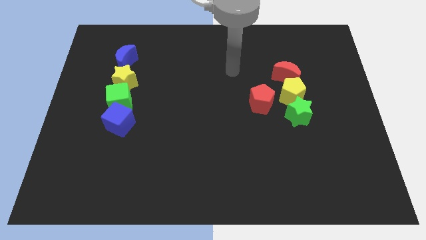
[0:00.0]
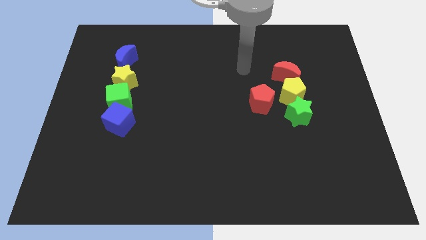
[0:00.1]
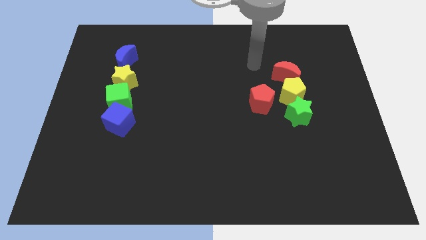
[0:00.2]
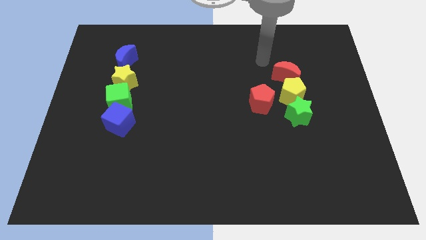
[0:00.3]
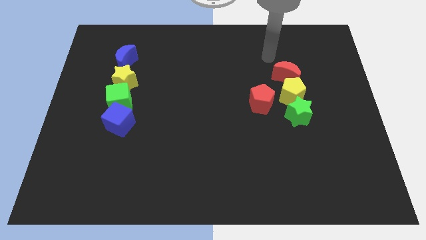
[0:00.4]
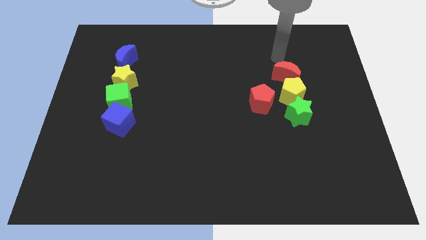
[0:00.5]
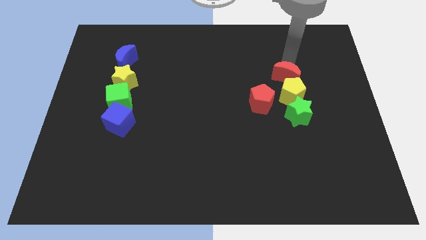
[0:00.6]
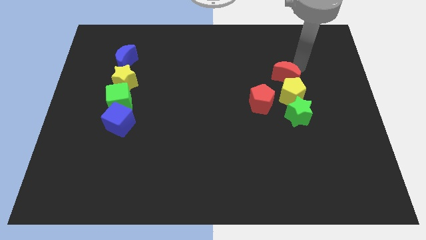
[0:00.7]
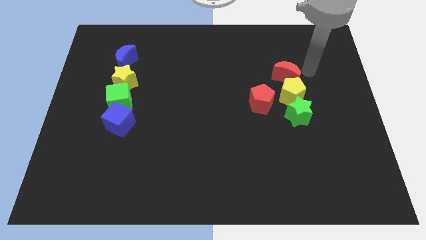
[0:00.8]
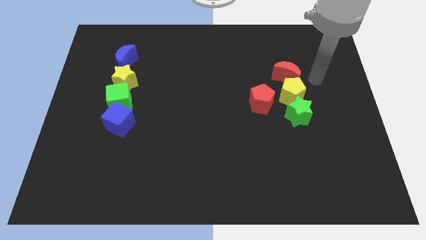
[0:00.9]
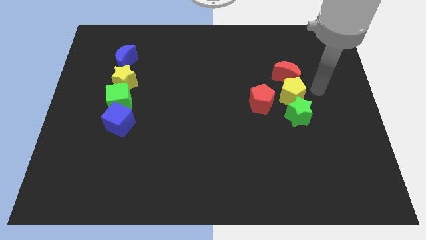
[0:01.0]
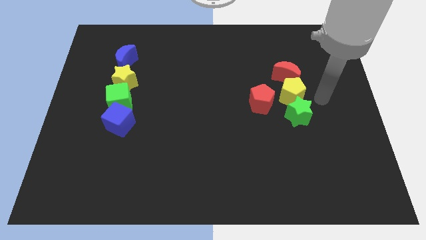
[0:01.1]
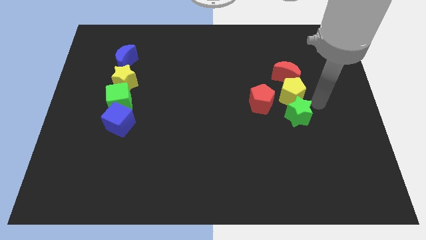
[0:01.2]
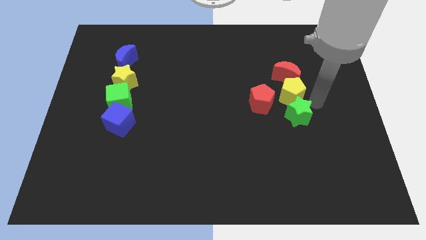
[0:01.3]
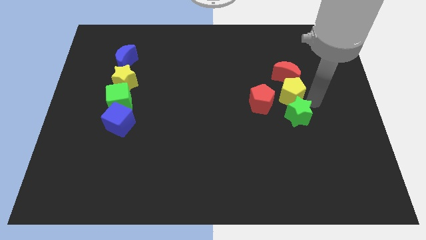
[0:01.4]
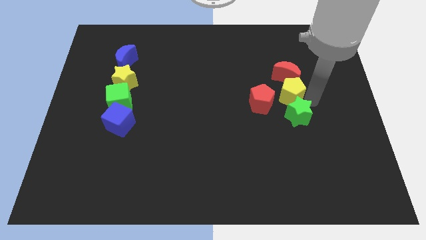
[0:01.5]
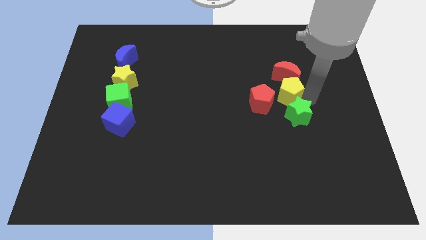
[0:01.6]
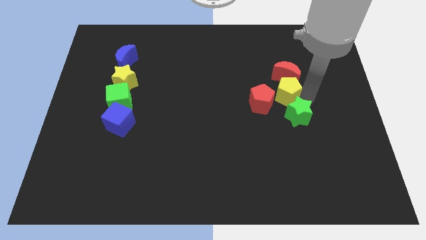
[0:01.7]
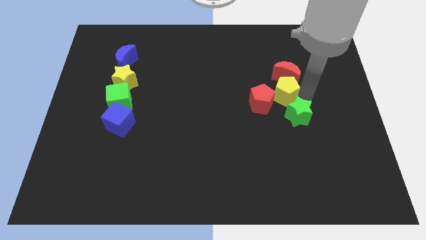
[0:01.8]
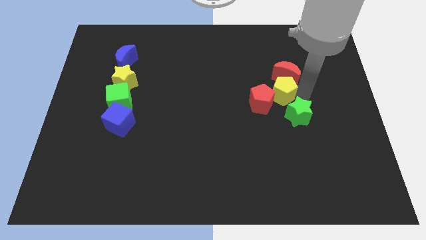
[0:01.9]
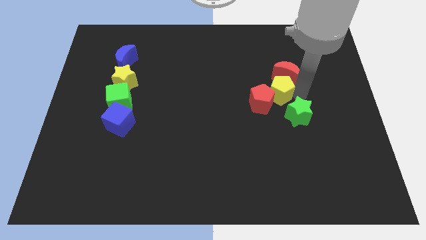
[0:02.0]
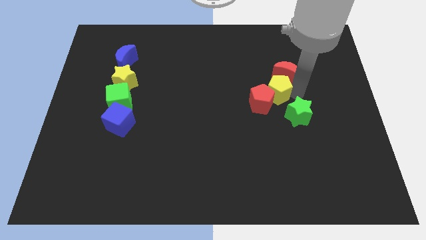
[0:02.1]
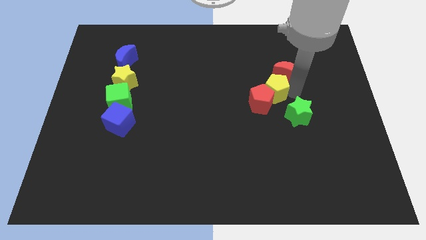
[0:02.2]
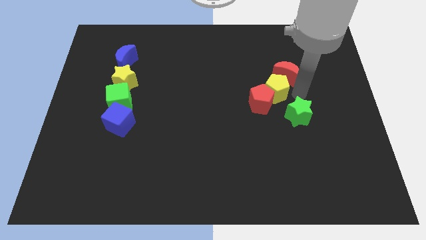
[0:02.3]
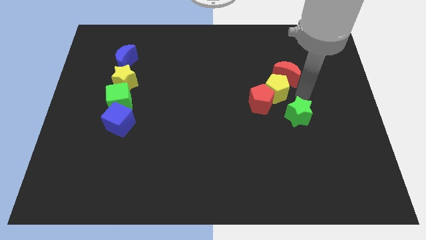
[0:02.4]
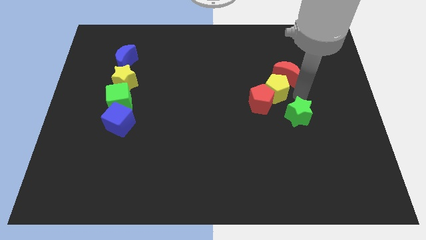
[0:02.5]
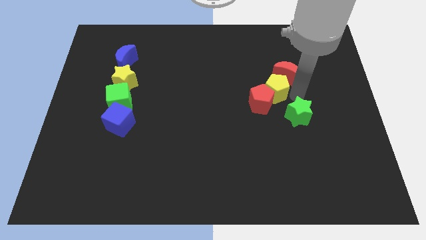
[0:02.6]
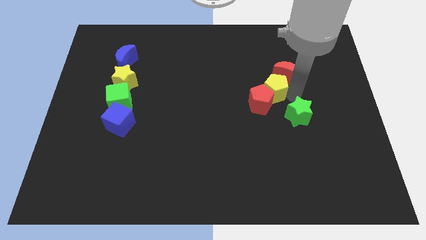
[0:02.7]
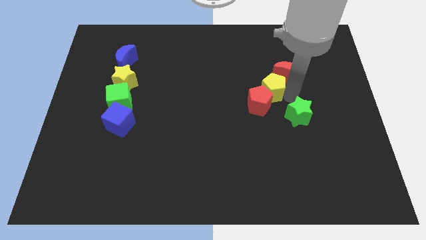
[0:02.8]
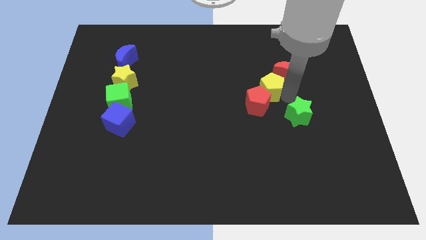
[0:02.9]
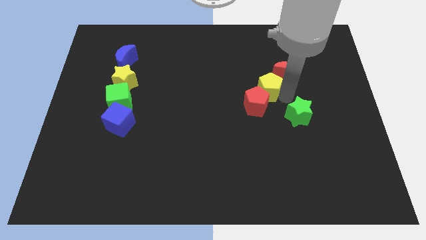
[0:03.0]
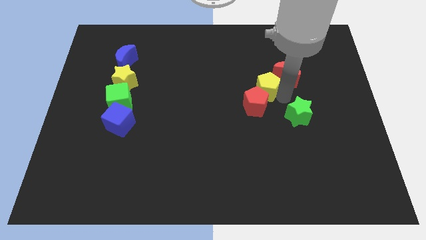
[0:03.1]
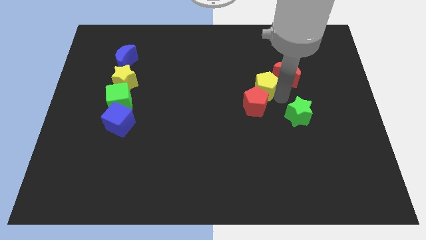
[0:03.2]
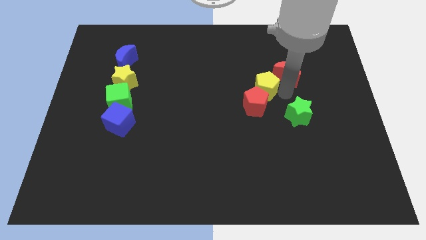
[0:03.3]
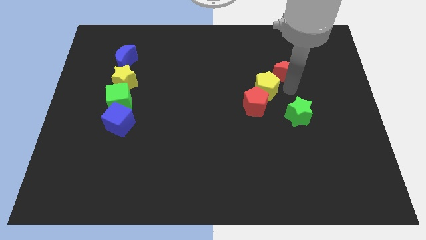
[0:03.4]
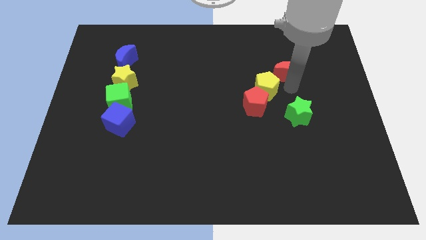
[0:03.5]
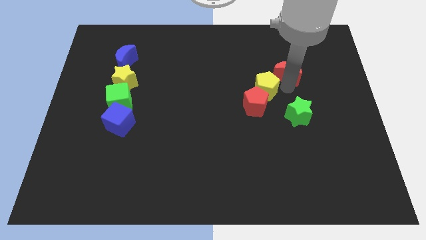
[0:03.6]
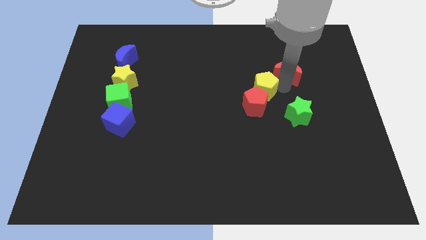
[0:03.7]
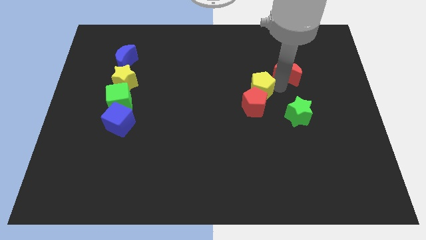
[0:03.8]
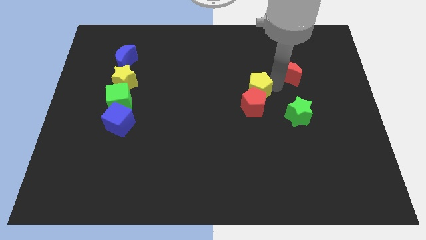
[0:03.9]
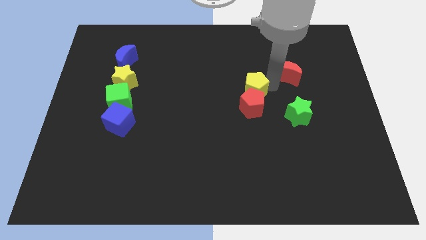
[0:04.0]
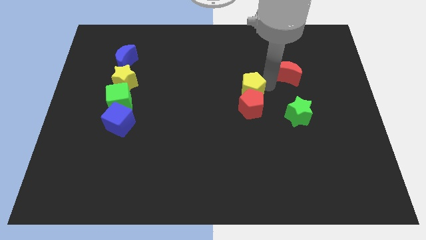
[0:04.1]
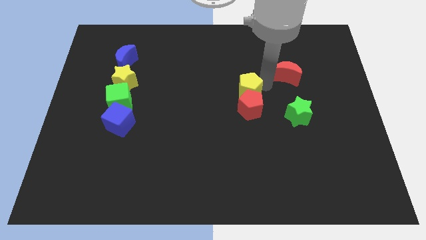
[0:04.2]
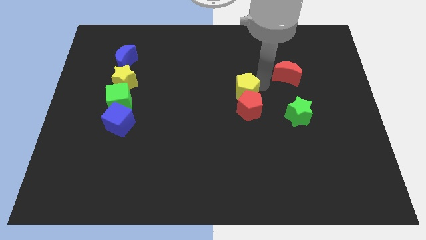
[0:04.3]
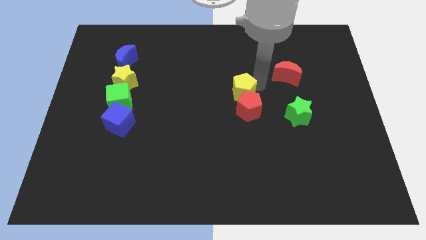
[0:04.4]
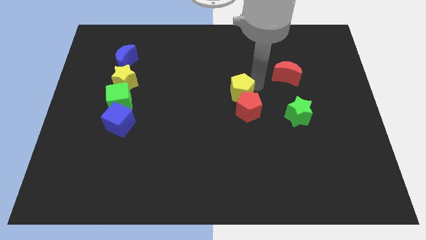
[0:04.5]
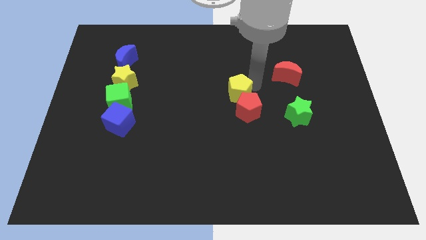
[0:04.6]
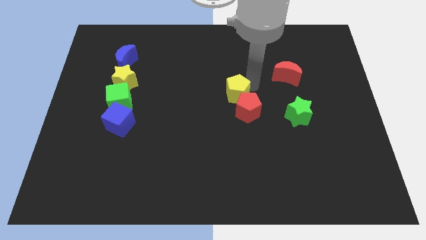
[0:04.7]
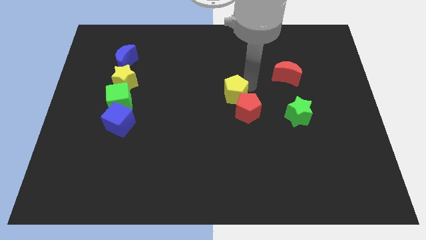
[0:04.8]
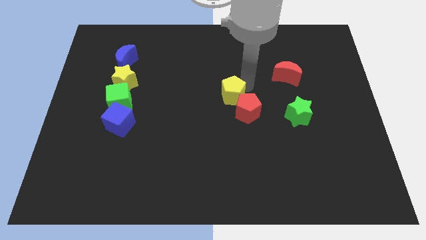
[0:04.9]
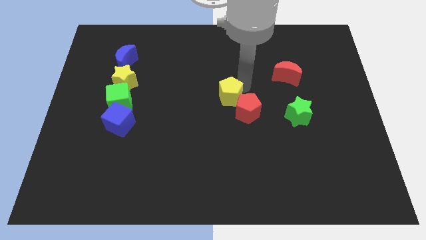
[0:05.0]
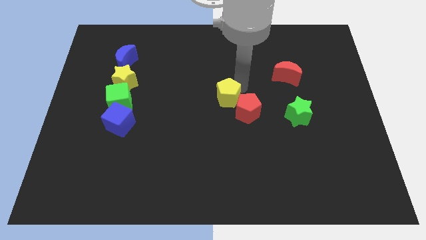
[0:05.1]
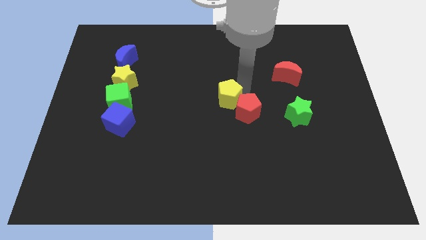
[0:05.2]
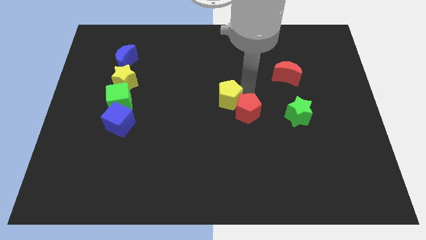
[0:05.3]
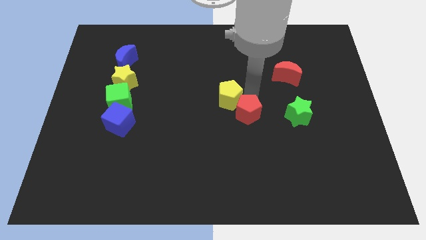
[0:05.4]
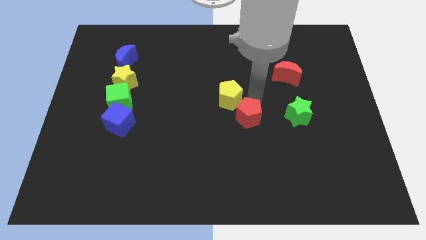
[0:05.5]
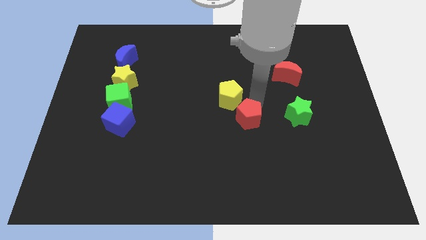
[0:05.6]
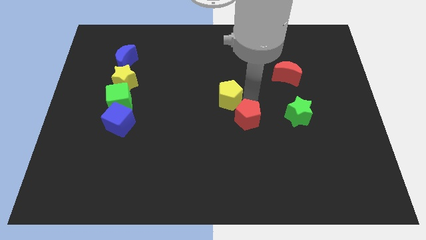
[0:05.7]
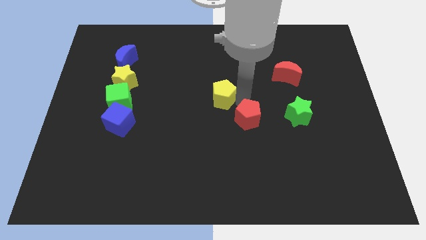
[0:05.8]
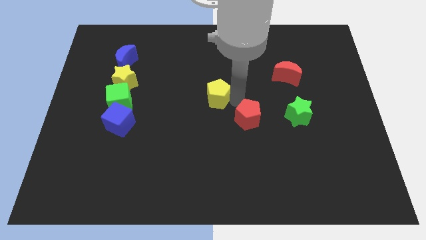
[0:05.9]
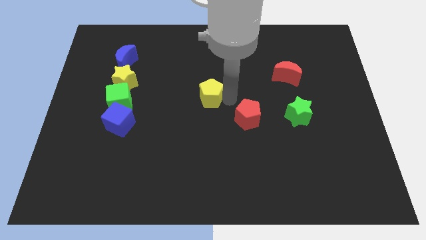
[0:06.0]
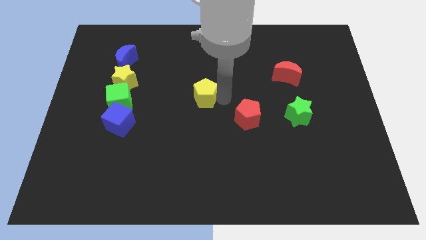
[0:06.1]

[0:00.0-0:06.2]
push the yellow pentagon to the left

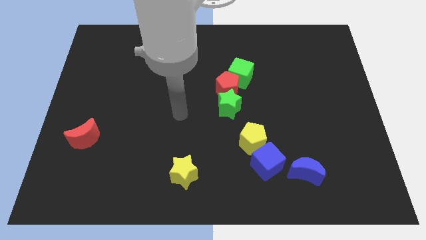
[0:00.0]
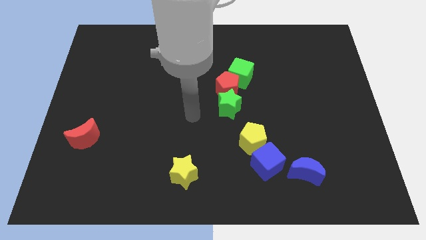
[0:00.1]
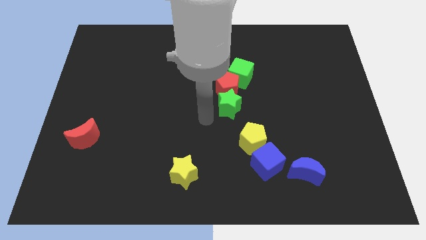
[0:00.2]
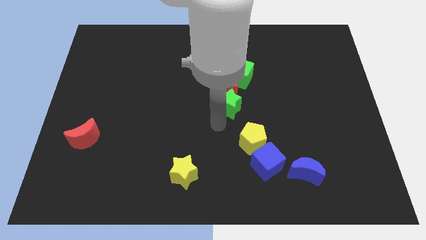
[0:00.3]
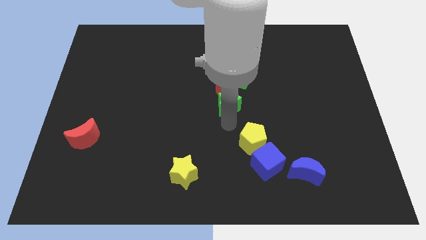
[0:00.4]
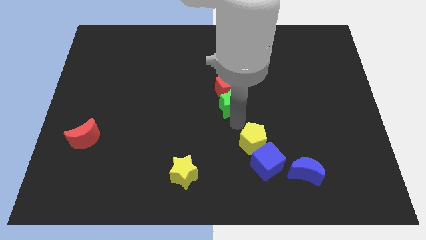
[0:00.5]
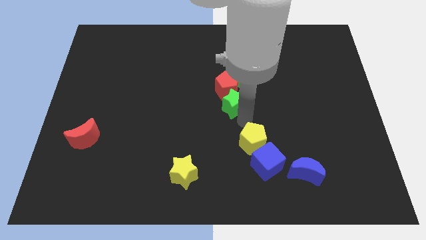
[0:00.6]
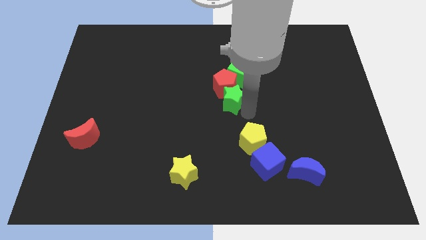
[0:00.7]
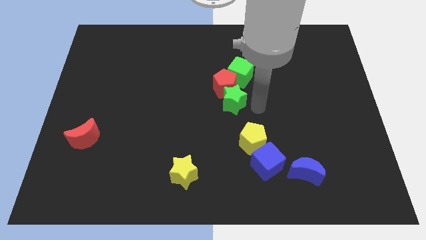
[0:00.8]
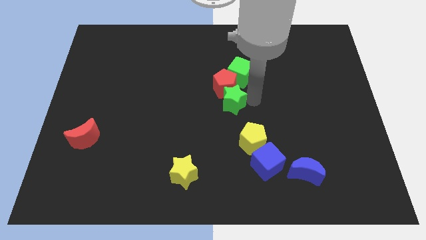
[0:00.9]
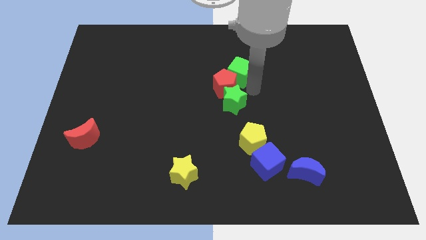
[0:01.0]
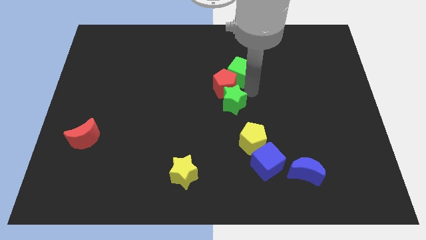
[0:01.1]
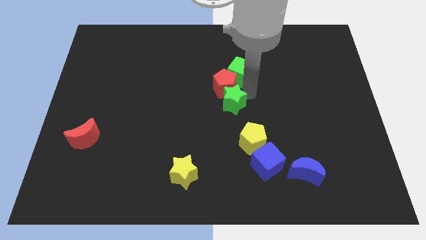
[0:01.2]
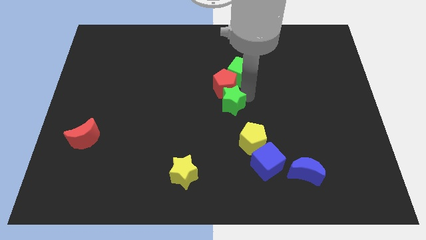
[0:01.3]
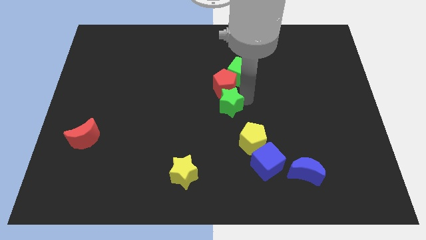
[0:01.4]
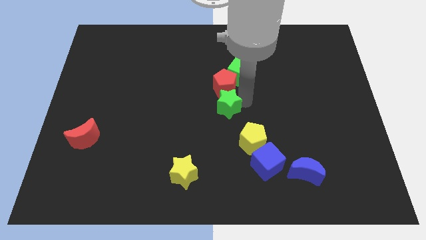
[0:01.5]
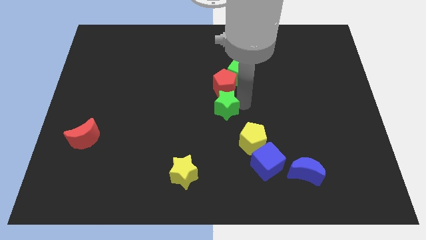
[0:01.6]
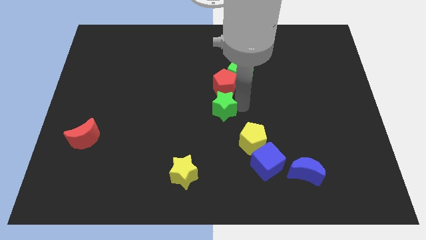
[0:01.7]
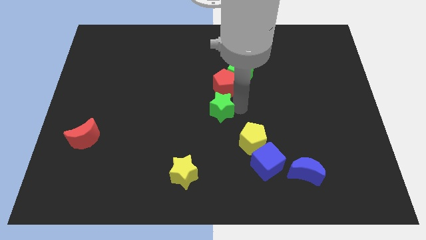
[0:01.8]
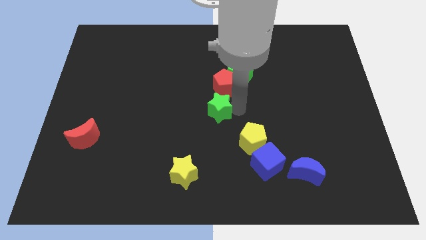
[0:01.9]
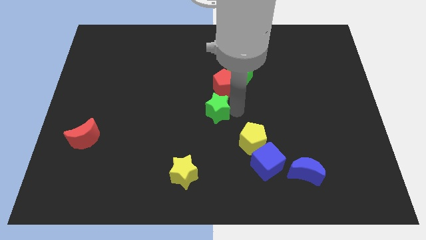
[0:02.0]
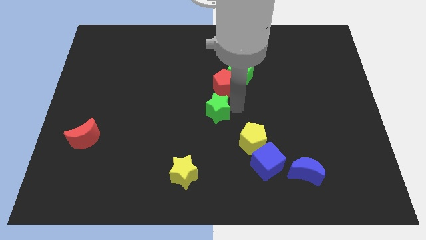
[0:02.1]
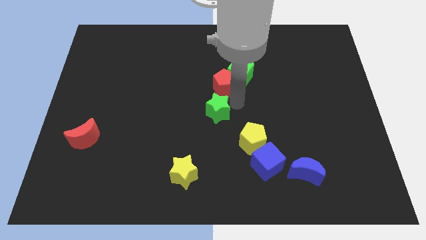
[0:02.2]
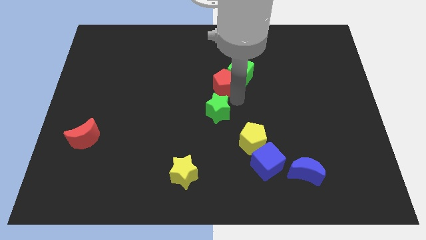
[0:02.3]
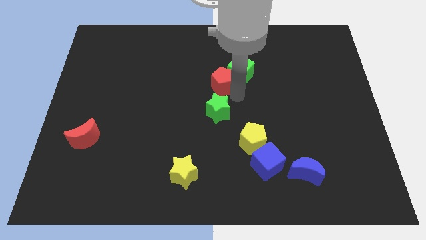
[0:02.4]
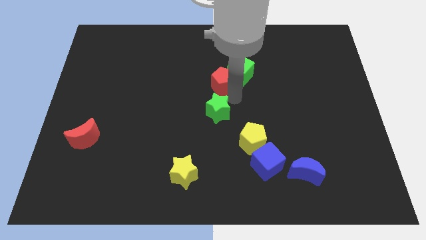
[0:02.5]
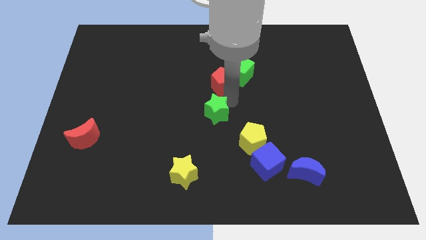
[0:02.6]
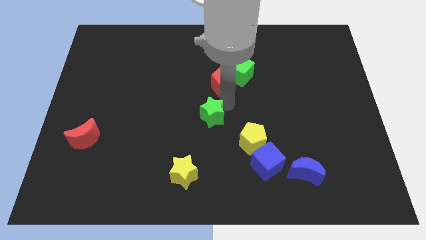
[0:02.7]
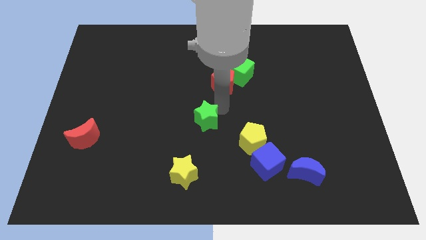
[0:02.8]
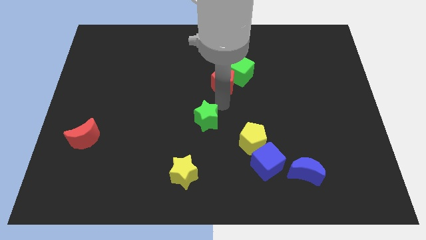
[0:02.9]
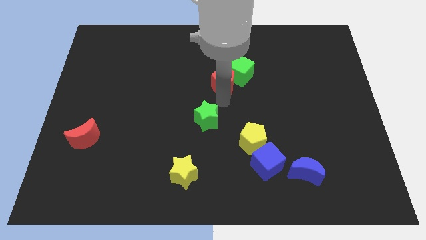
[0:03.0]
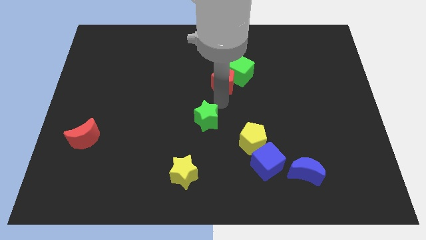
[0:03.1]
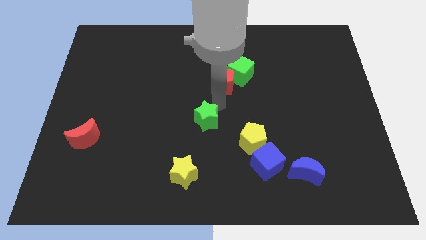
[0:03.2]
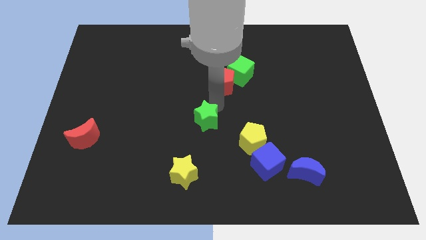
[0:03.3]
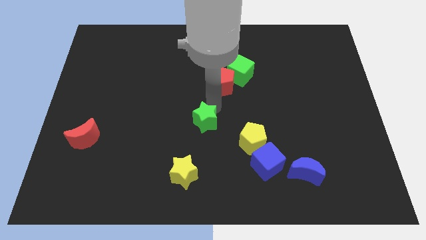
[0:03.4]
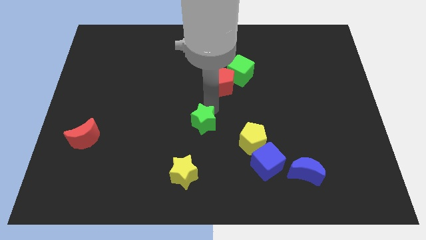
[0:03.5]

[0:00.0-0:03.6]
slide the green star a little bit down and then left
